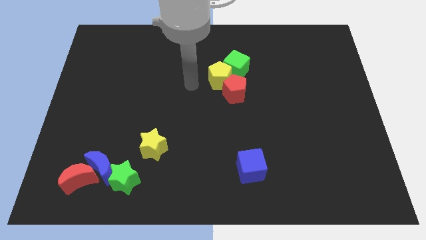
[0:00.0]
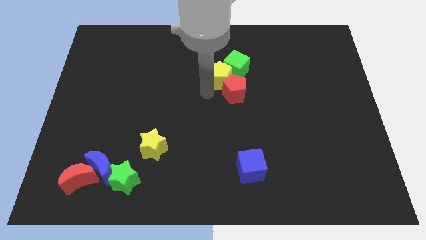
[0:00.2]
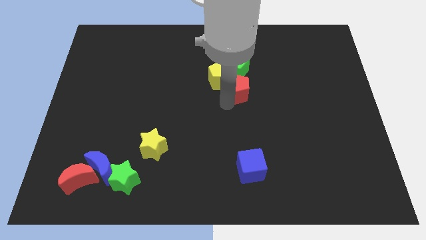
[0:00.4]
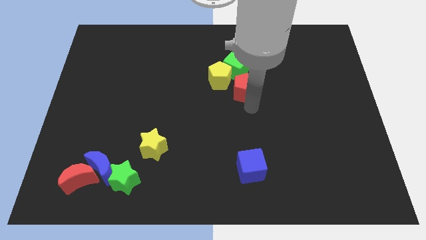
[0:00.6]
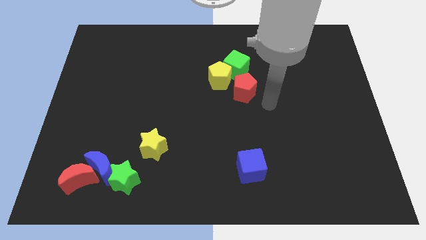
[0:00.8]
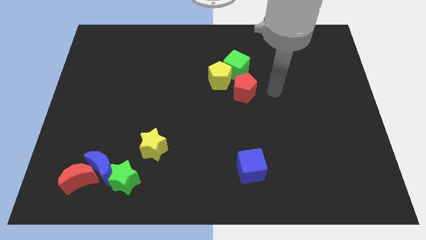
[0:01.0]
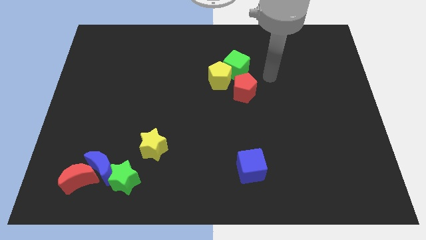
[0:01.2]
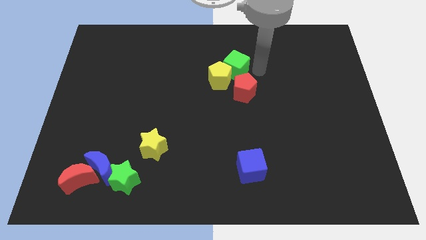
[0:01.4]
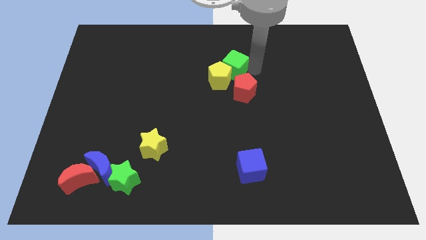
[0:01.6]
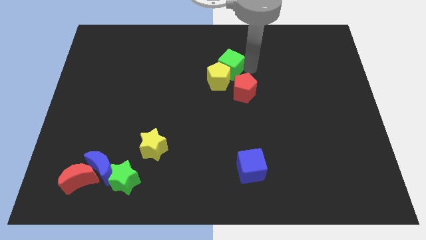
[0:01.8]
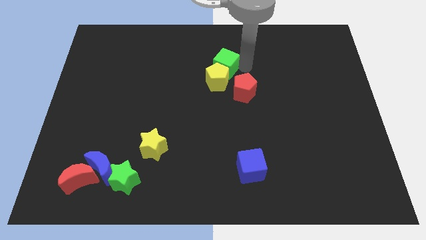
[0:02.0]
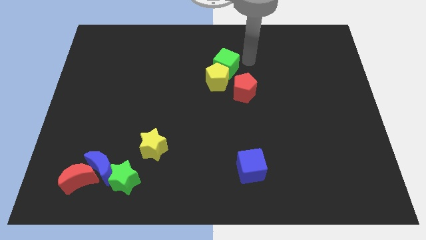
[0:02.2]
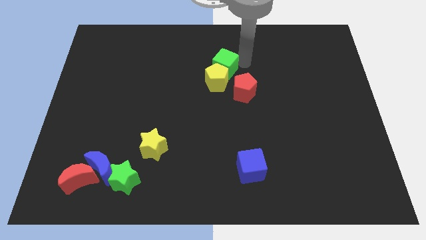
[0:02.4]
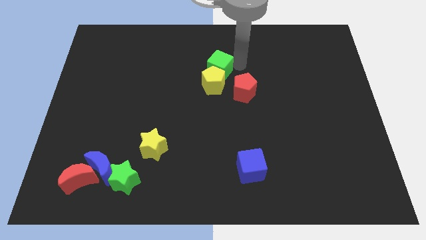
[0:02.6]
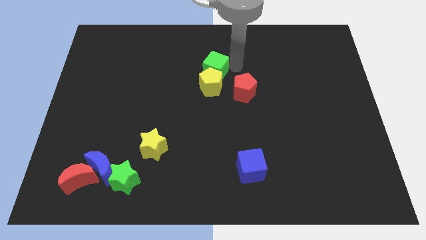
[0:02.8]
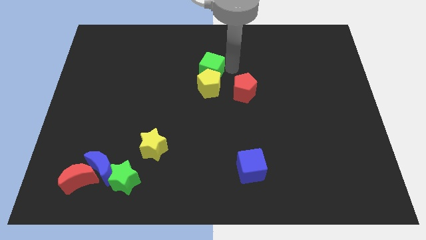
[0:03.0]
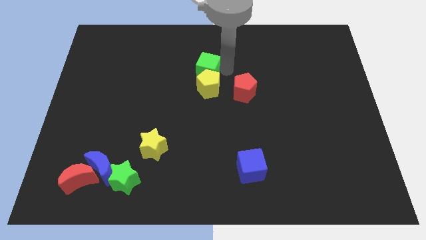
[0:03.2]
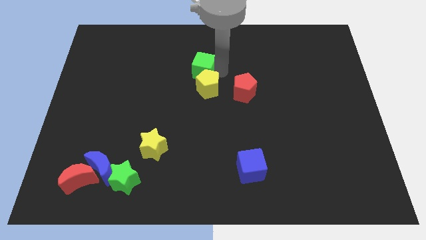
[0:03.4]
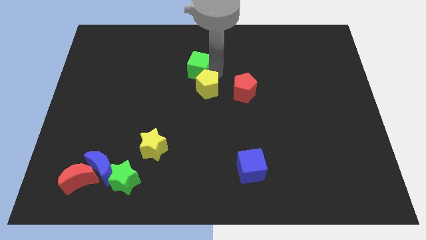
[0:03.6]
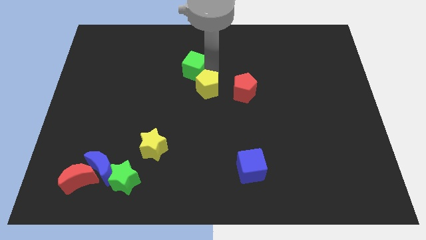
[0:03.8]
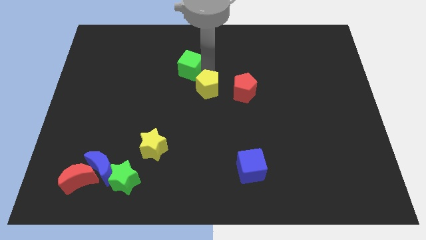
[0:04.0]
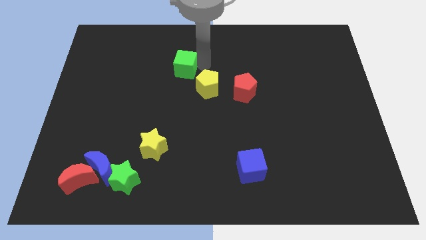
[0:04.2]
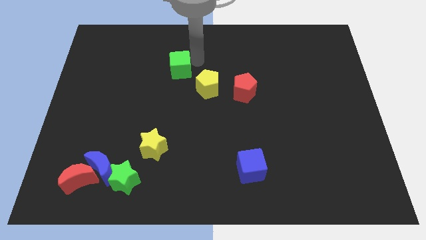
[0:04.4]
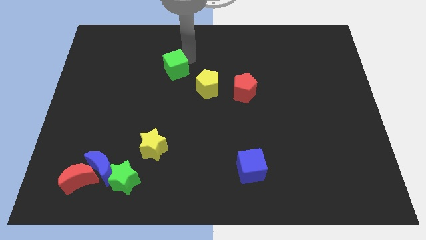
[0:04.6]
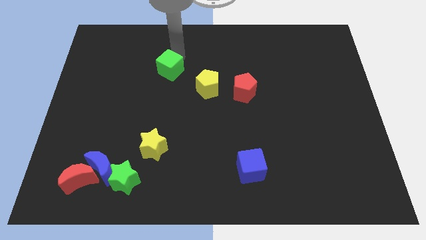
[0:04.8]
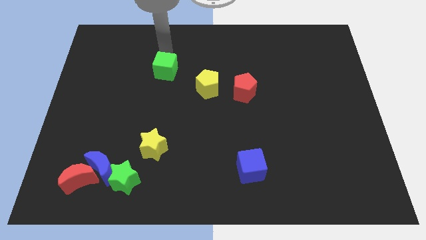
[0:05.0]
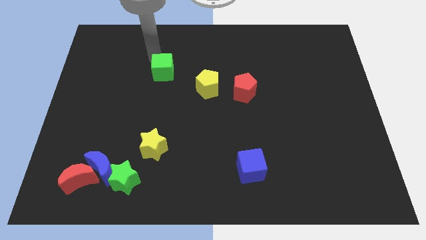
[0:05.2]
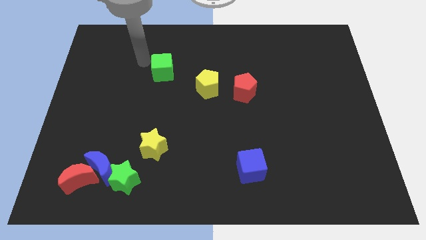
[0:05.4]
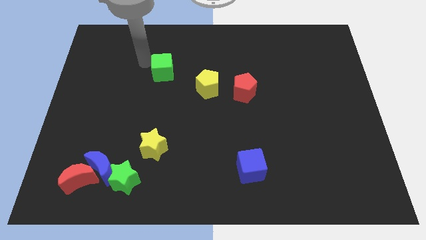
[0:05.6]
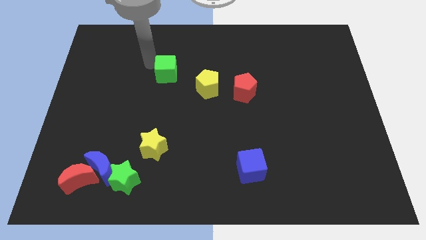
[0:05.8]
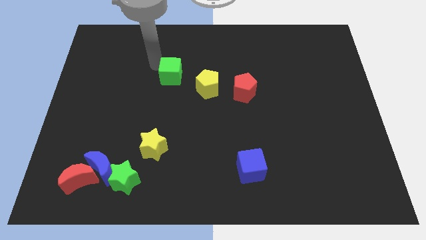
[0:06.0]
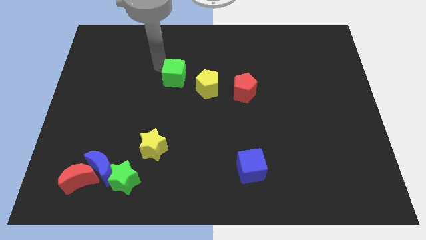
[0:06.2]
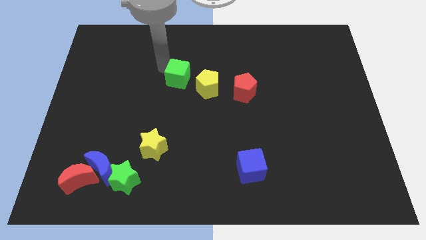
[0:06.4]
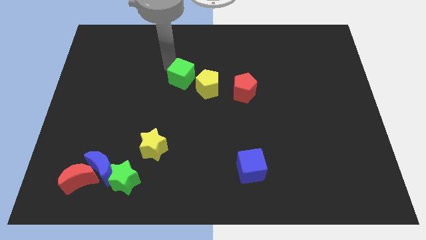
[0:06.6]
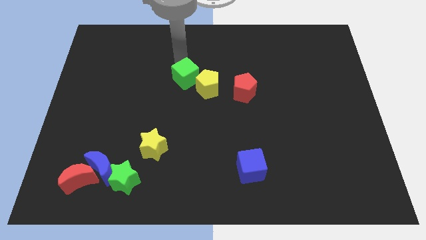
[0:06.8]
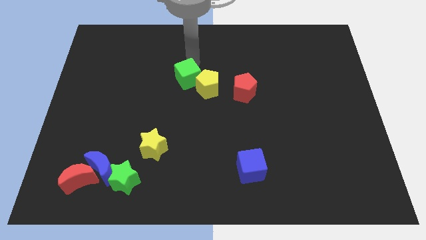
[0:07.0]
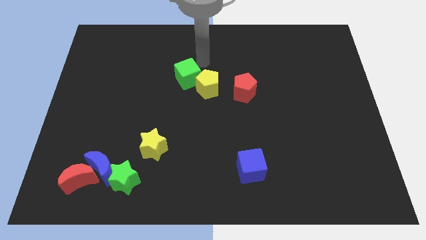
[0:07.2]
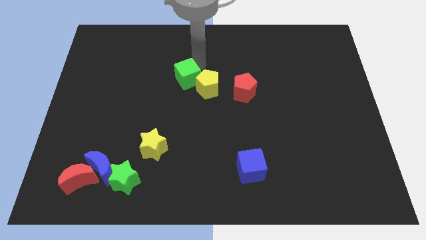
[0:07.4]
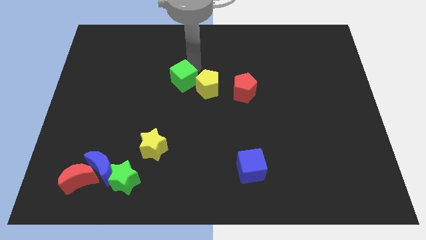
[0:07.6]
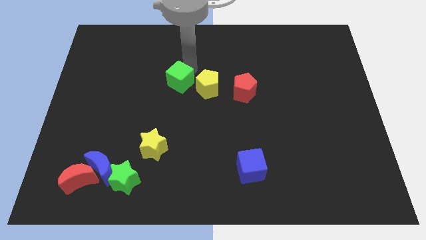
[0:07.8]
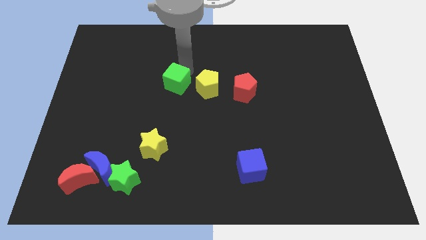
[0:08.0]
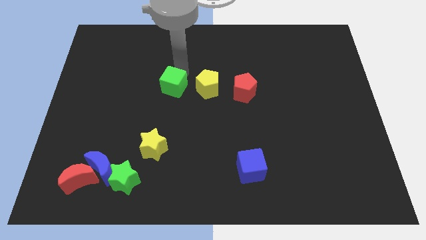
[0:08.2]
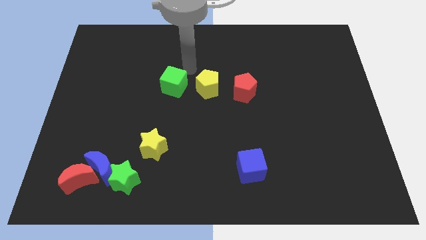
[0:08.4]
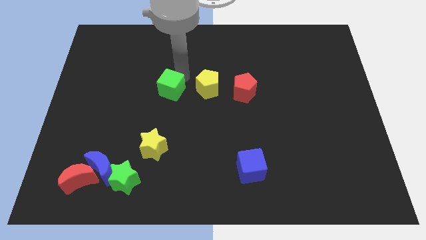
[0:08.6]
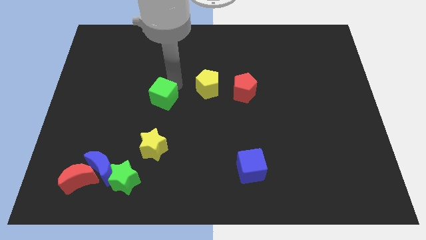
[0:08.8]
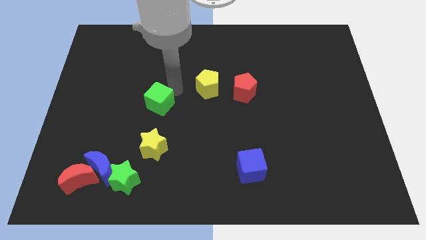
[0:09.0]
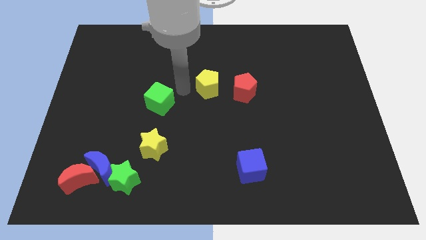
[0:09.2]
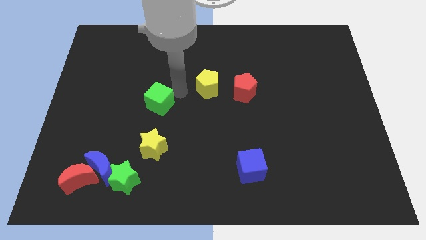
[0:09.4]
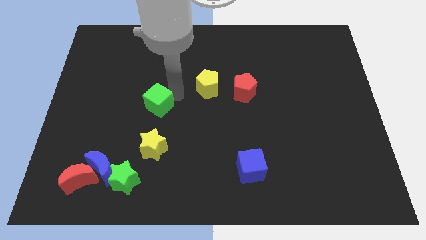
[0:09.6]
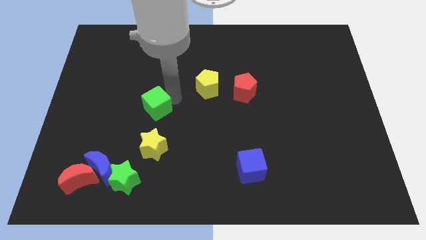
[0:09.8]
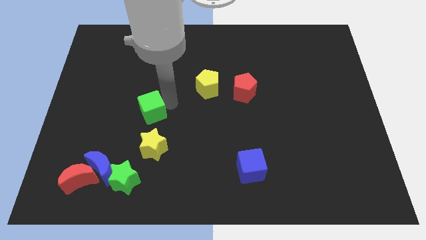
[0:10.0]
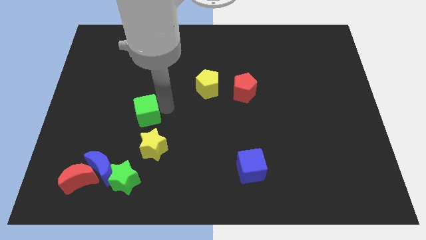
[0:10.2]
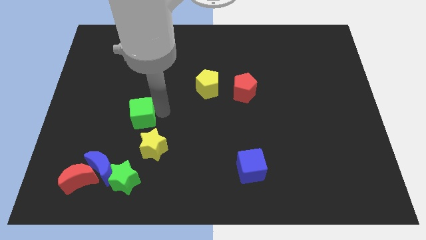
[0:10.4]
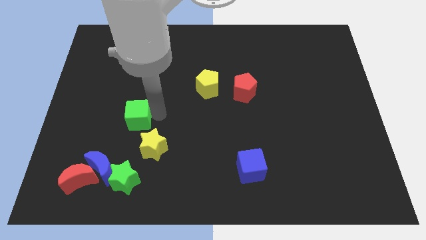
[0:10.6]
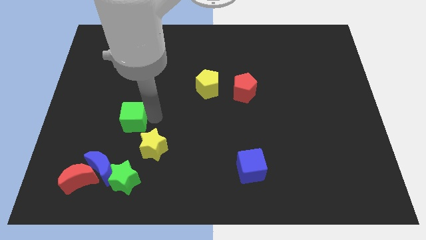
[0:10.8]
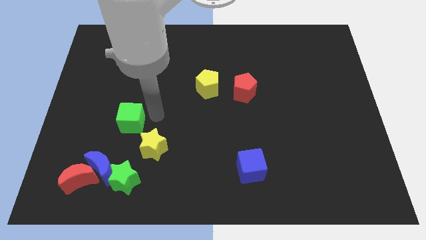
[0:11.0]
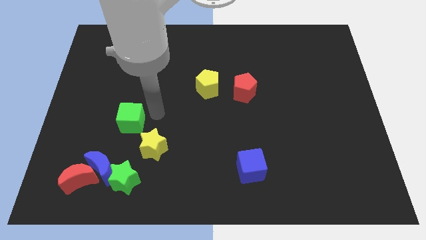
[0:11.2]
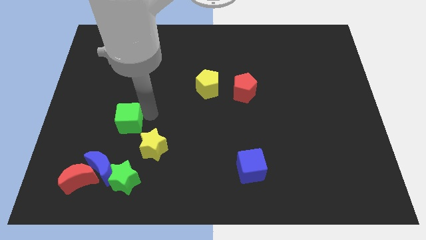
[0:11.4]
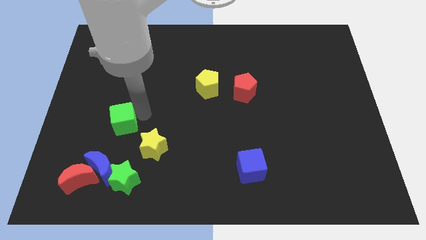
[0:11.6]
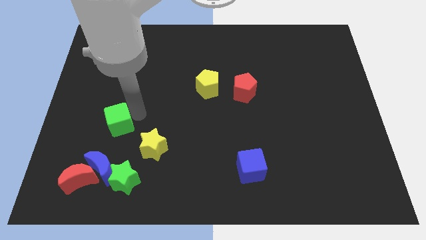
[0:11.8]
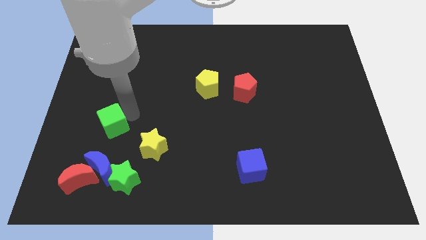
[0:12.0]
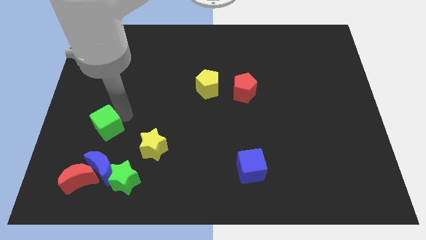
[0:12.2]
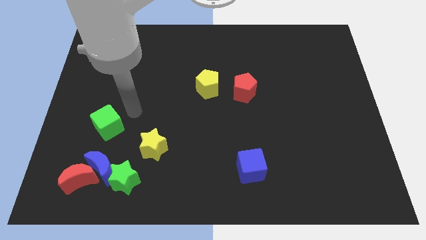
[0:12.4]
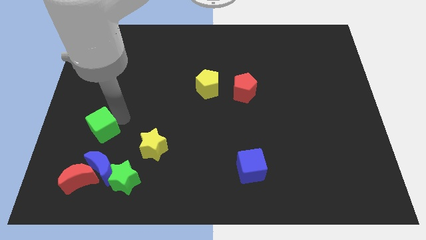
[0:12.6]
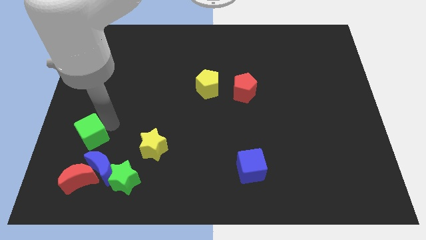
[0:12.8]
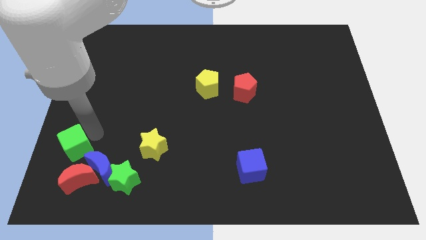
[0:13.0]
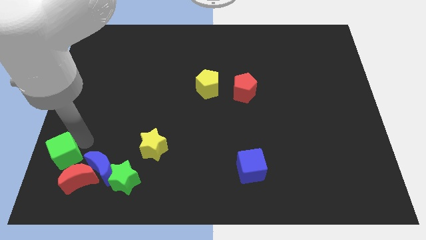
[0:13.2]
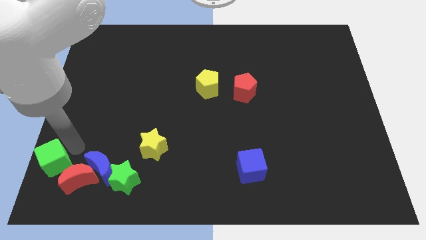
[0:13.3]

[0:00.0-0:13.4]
push the green cube to the bottom left corner
